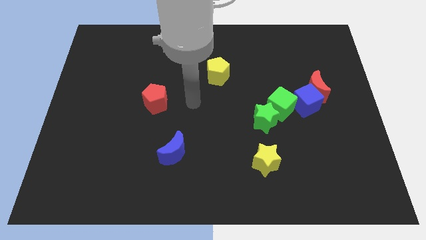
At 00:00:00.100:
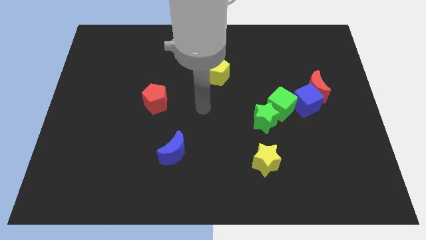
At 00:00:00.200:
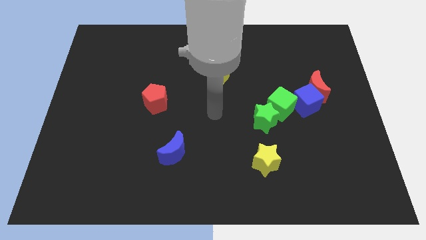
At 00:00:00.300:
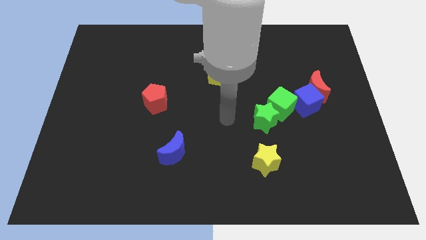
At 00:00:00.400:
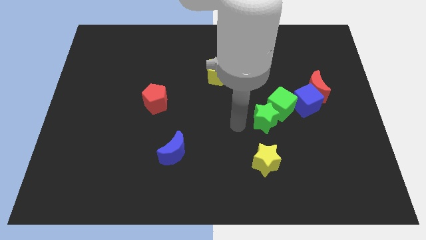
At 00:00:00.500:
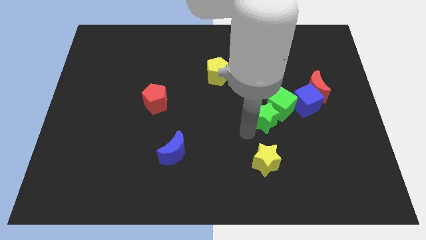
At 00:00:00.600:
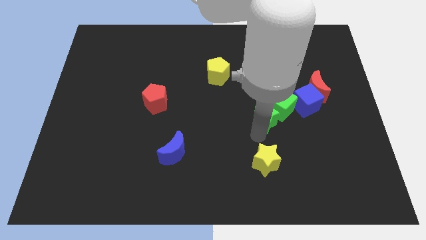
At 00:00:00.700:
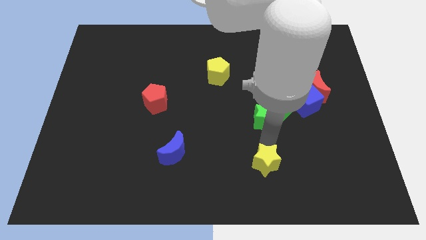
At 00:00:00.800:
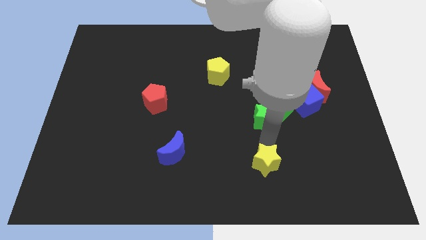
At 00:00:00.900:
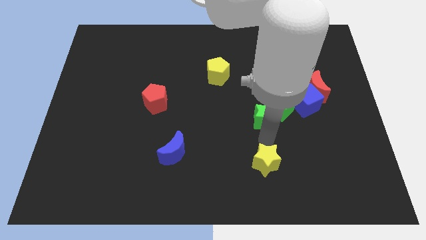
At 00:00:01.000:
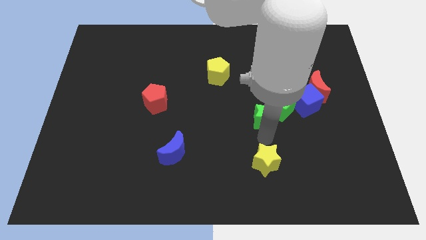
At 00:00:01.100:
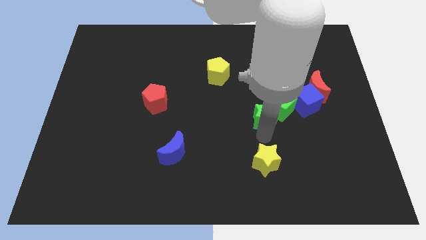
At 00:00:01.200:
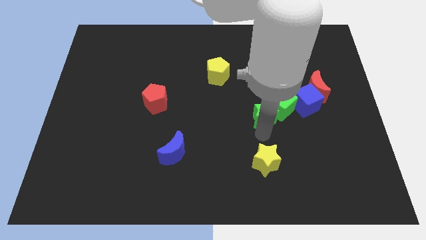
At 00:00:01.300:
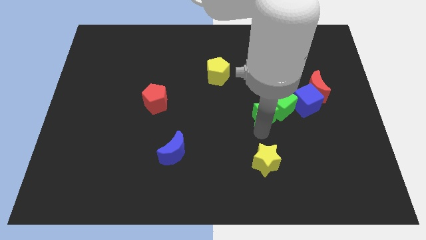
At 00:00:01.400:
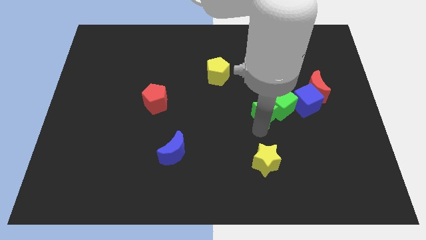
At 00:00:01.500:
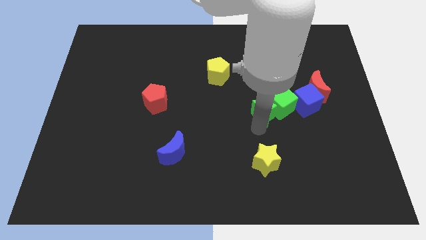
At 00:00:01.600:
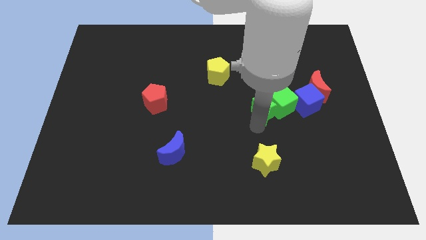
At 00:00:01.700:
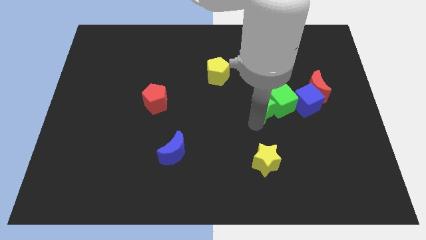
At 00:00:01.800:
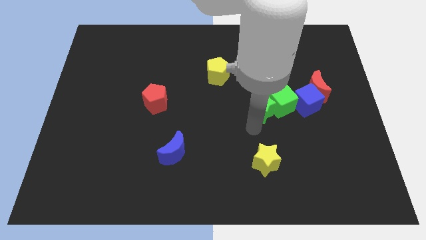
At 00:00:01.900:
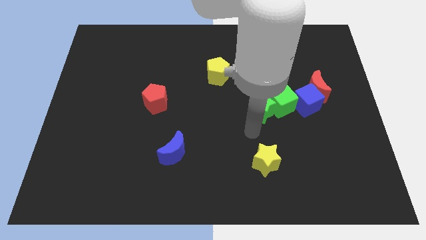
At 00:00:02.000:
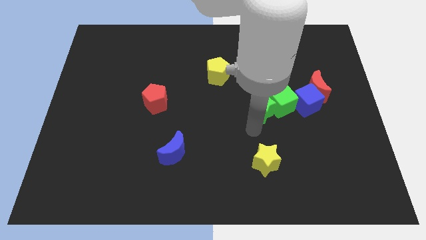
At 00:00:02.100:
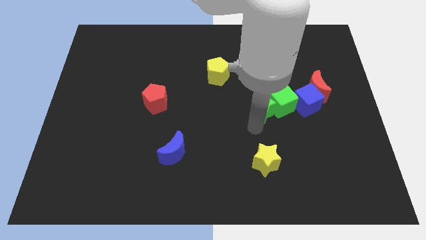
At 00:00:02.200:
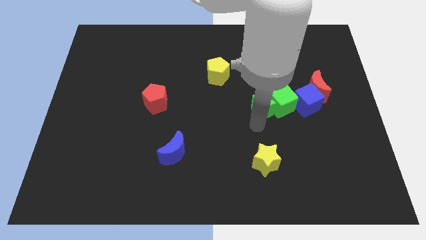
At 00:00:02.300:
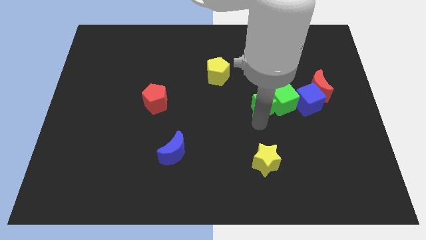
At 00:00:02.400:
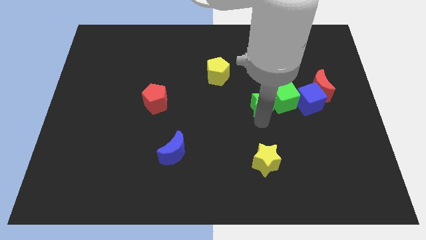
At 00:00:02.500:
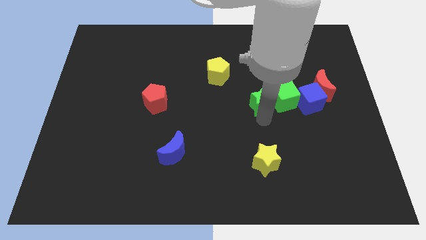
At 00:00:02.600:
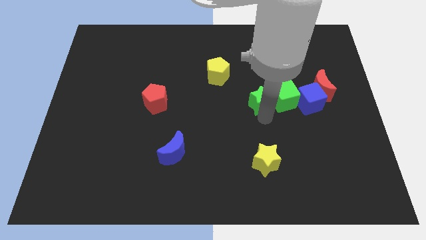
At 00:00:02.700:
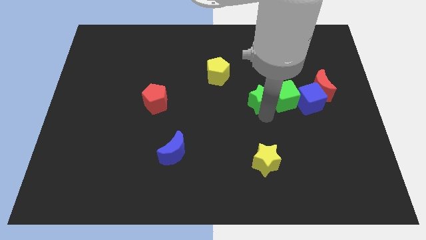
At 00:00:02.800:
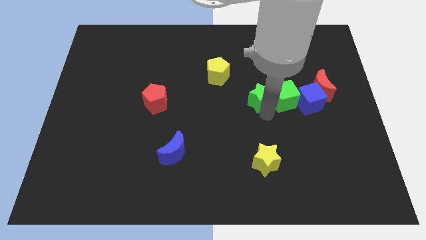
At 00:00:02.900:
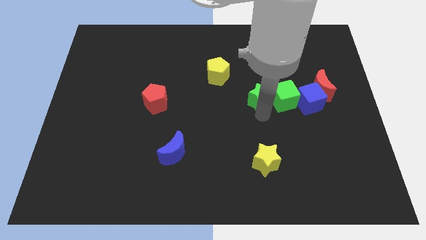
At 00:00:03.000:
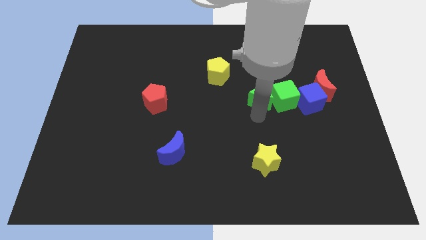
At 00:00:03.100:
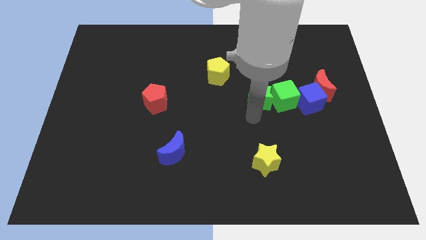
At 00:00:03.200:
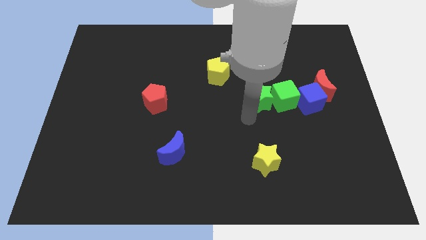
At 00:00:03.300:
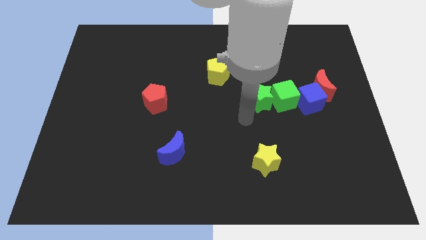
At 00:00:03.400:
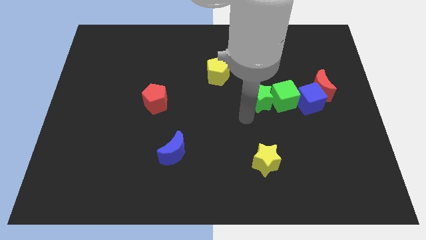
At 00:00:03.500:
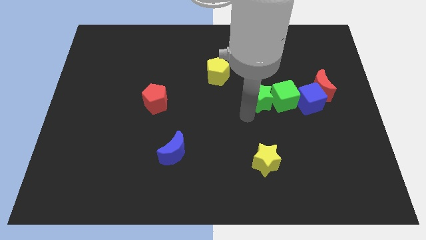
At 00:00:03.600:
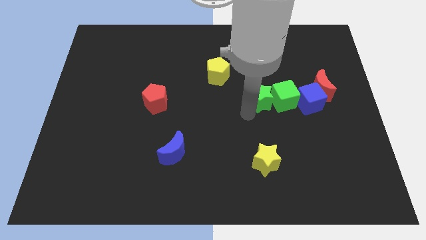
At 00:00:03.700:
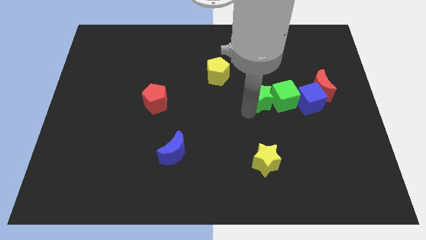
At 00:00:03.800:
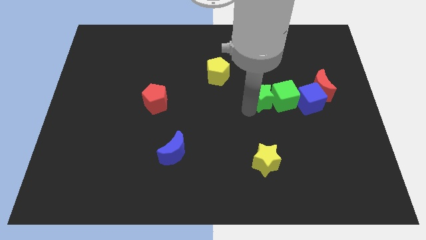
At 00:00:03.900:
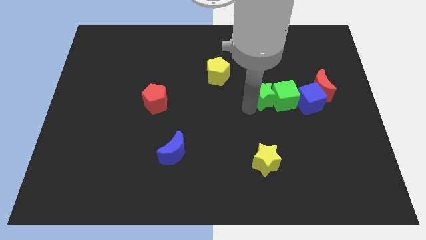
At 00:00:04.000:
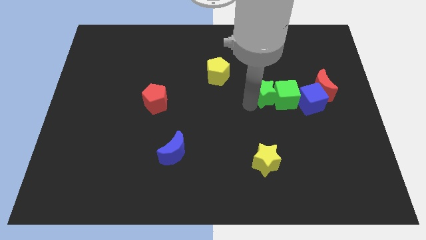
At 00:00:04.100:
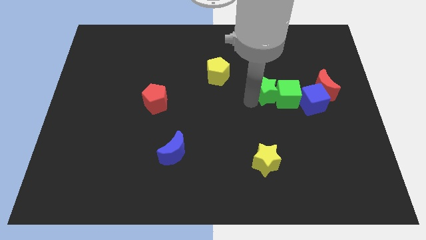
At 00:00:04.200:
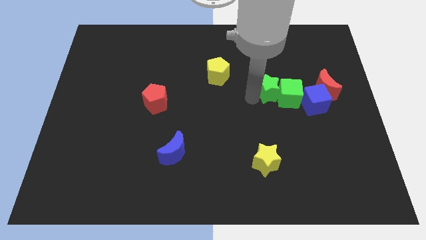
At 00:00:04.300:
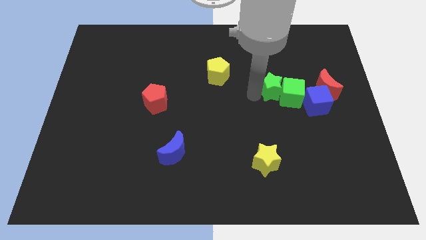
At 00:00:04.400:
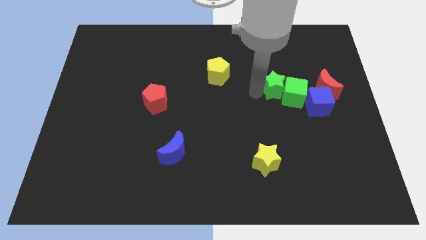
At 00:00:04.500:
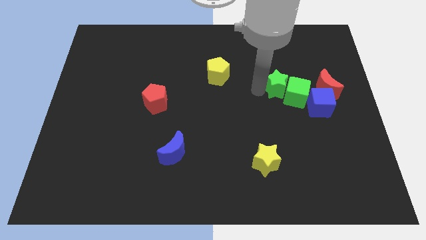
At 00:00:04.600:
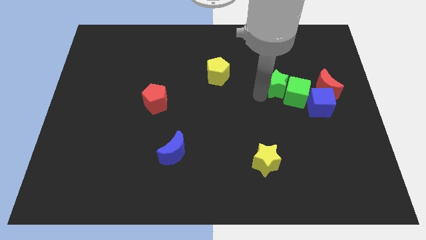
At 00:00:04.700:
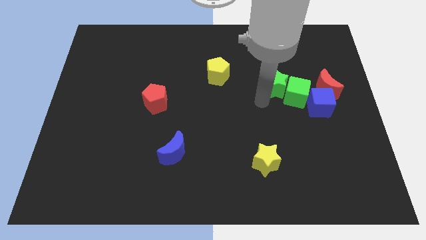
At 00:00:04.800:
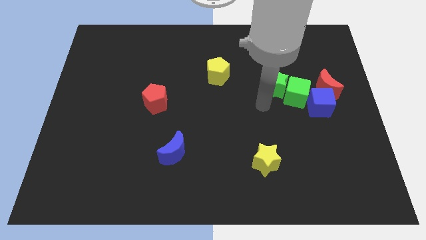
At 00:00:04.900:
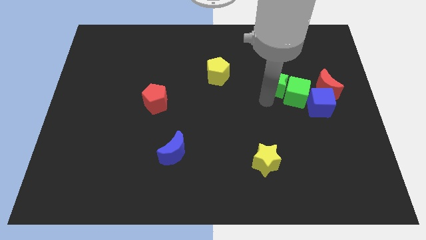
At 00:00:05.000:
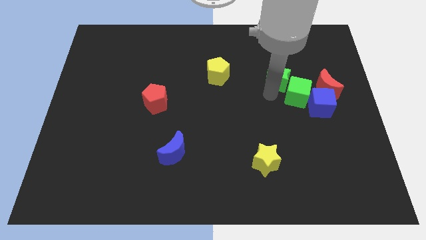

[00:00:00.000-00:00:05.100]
move the green star above the green cube

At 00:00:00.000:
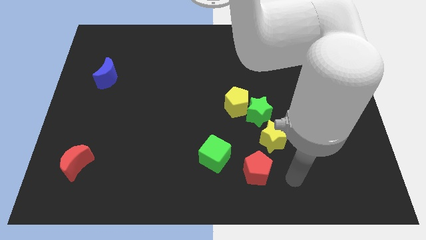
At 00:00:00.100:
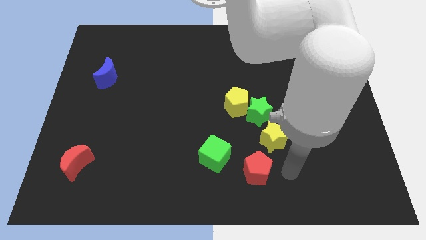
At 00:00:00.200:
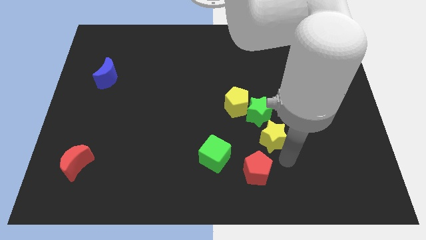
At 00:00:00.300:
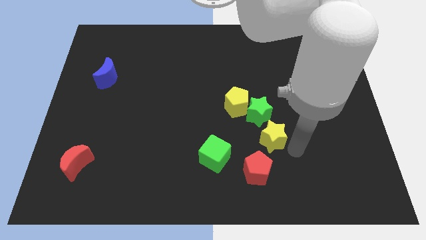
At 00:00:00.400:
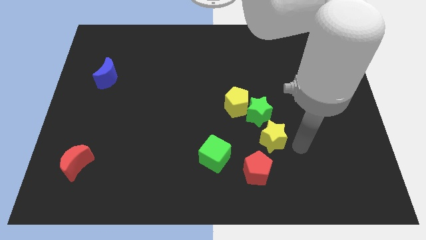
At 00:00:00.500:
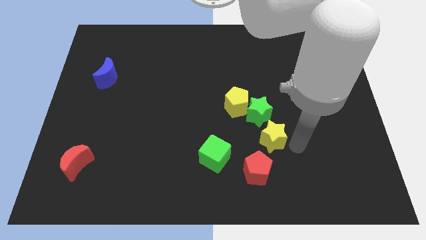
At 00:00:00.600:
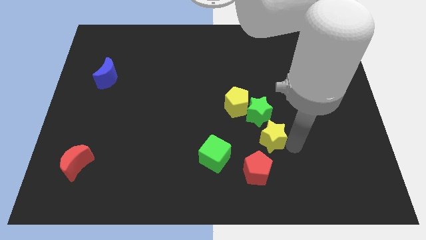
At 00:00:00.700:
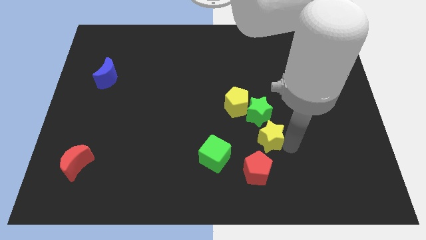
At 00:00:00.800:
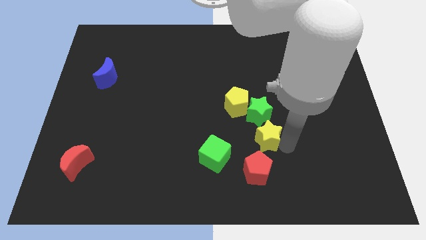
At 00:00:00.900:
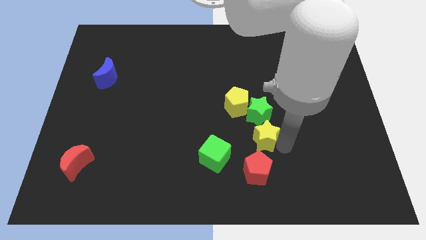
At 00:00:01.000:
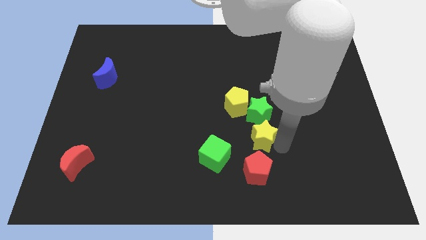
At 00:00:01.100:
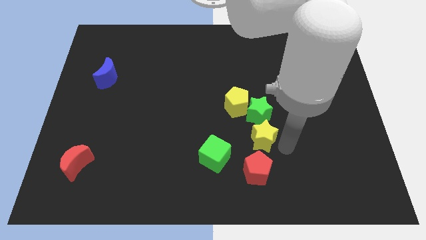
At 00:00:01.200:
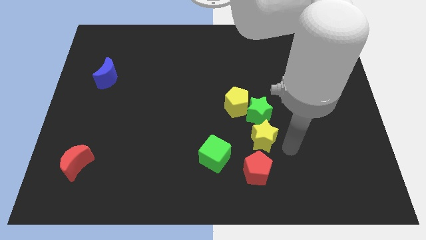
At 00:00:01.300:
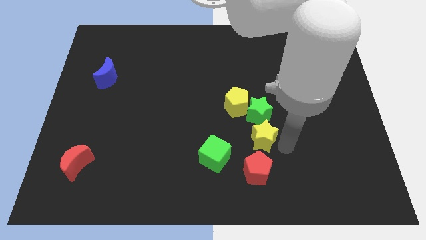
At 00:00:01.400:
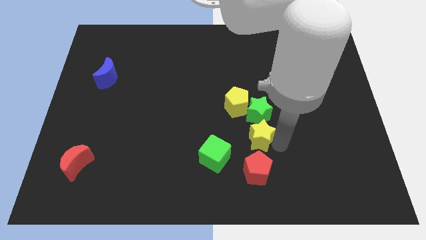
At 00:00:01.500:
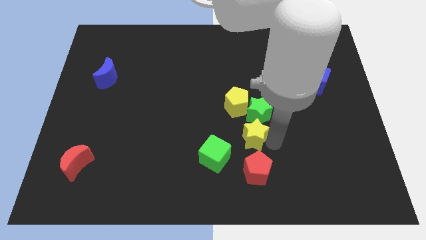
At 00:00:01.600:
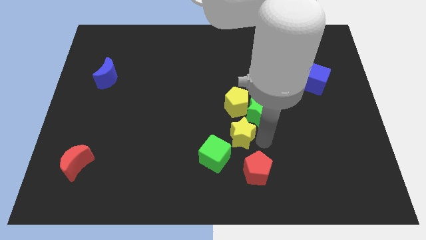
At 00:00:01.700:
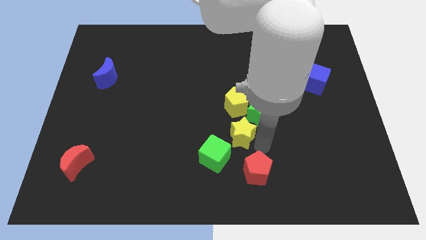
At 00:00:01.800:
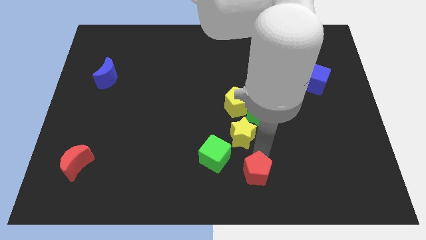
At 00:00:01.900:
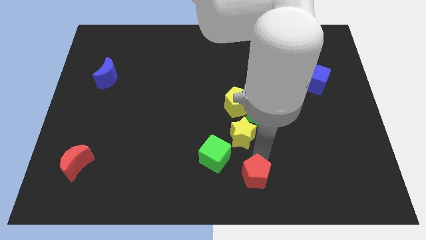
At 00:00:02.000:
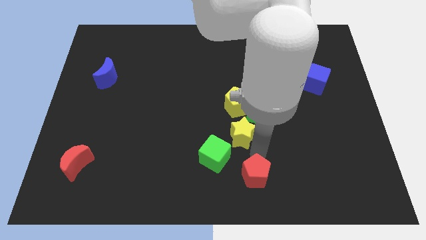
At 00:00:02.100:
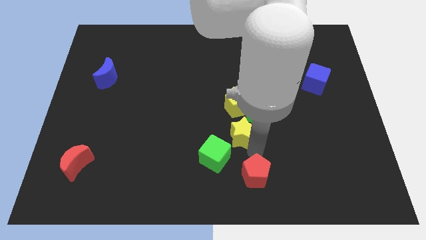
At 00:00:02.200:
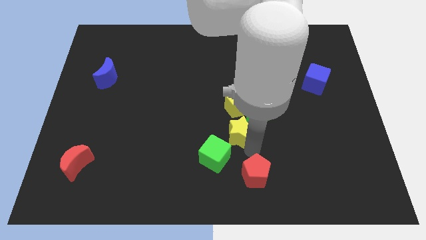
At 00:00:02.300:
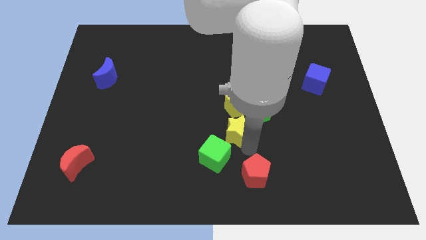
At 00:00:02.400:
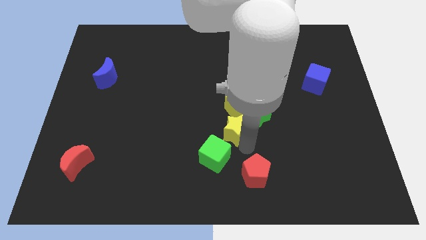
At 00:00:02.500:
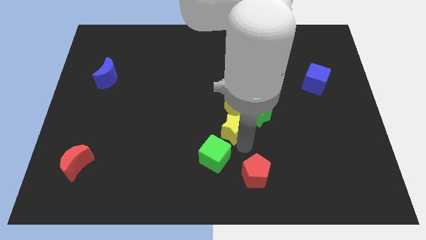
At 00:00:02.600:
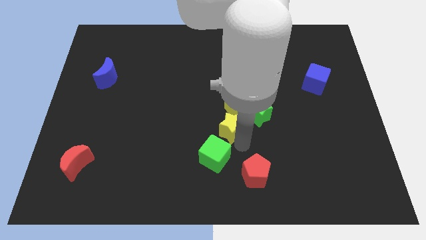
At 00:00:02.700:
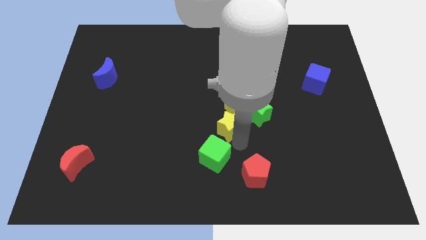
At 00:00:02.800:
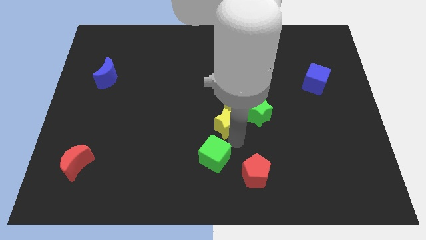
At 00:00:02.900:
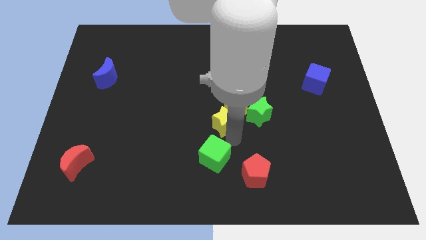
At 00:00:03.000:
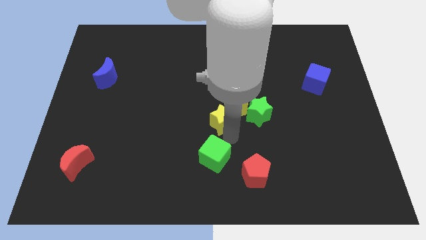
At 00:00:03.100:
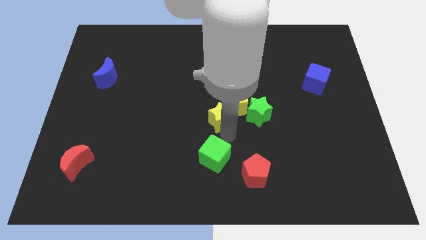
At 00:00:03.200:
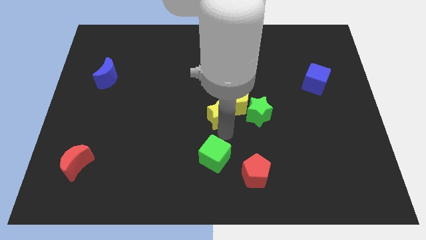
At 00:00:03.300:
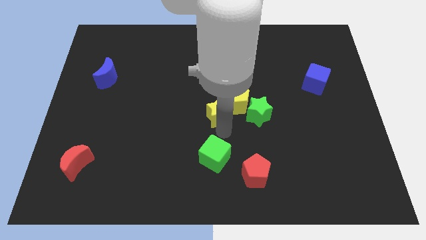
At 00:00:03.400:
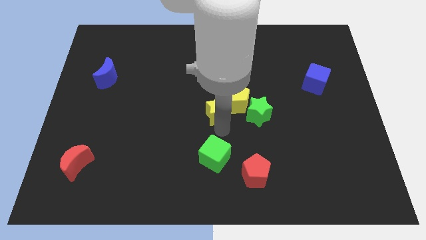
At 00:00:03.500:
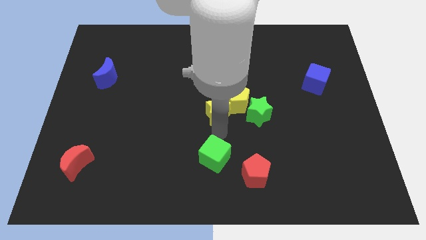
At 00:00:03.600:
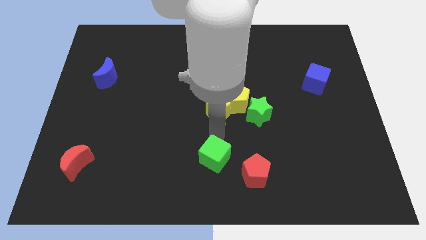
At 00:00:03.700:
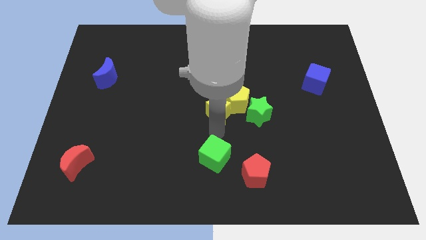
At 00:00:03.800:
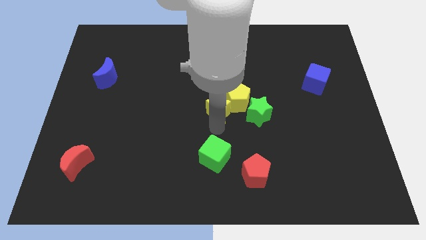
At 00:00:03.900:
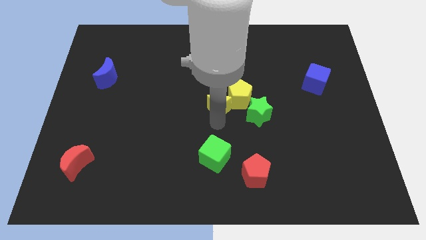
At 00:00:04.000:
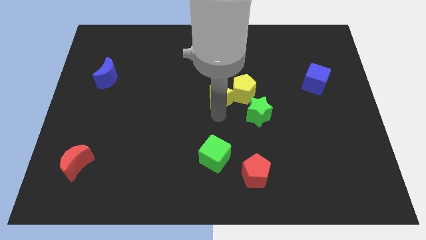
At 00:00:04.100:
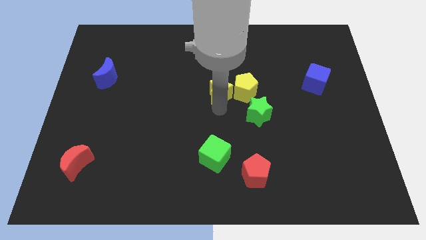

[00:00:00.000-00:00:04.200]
move the yellow star to the top left side of the yellow pentagon
